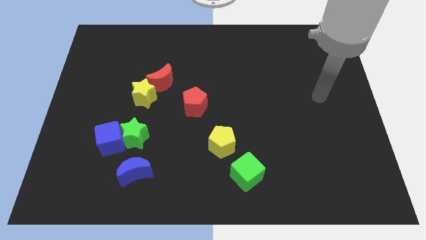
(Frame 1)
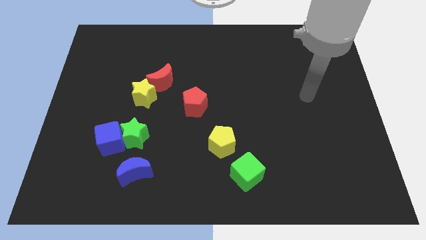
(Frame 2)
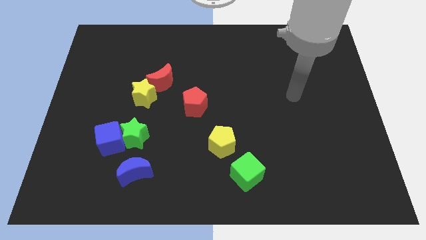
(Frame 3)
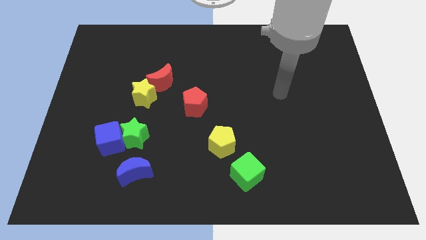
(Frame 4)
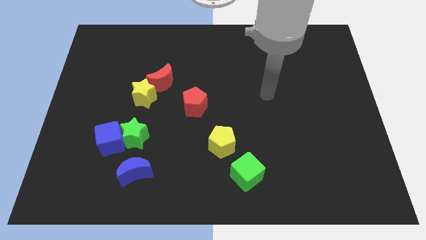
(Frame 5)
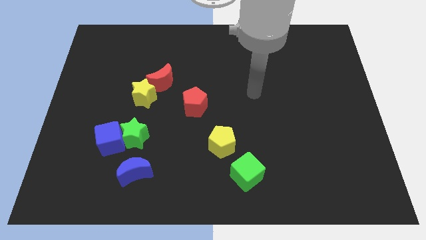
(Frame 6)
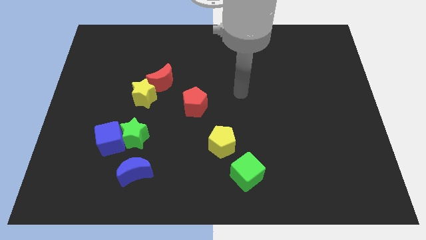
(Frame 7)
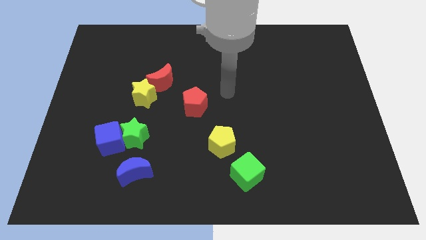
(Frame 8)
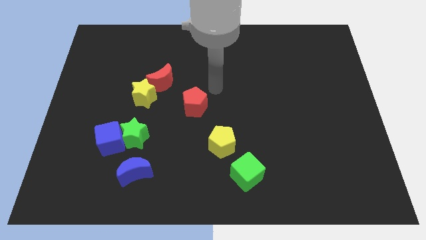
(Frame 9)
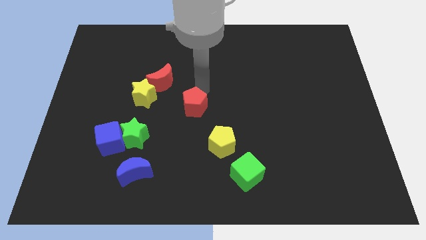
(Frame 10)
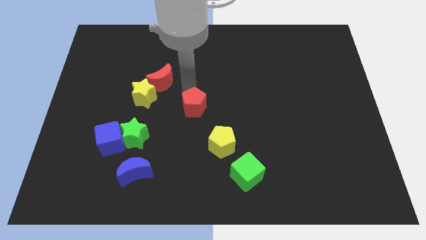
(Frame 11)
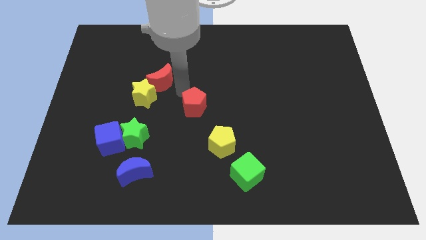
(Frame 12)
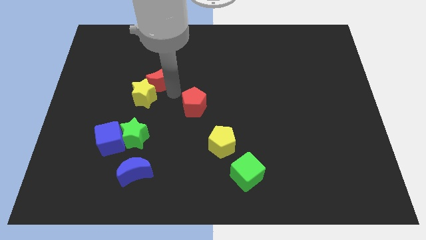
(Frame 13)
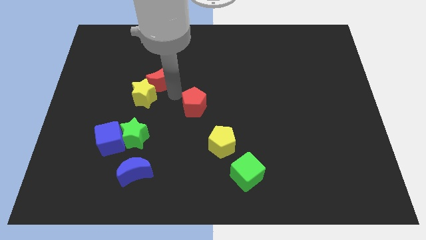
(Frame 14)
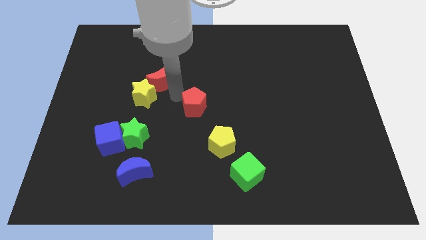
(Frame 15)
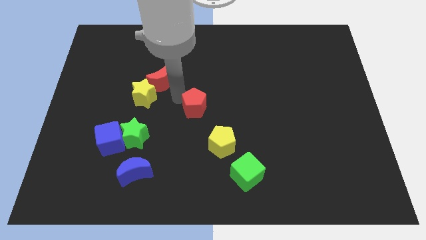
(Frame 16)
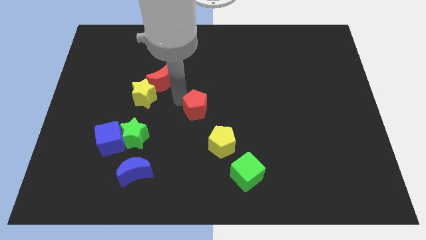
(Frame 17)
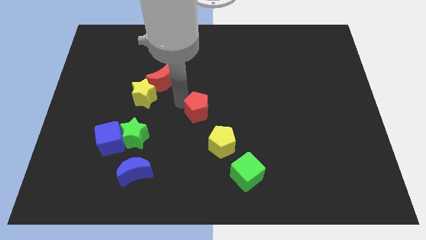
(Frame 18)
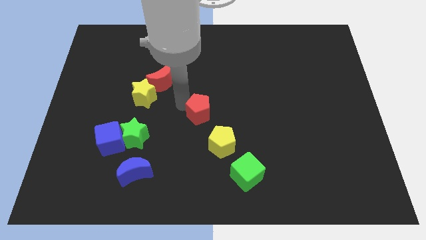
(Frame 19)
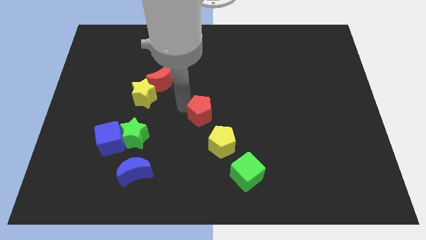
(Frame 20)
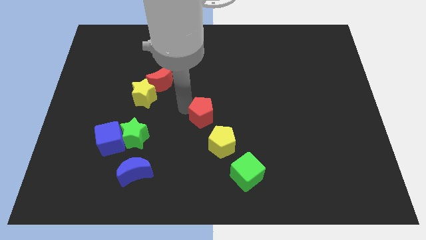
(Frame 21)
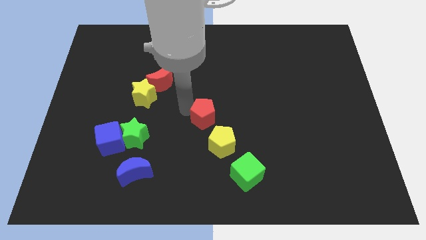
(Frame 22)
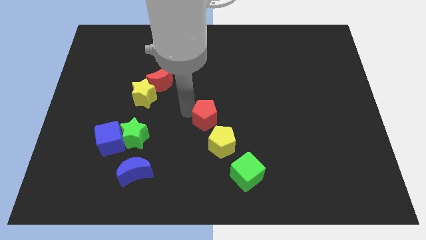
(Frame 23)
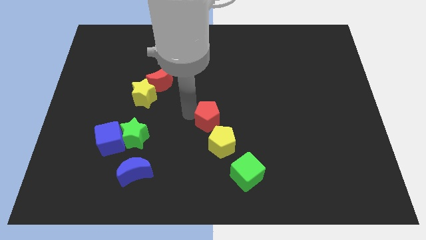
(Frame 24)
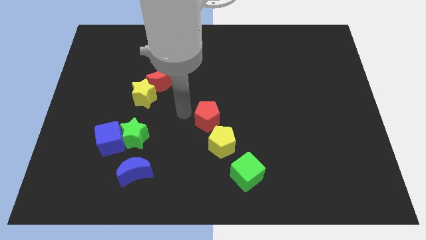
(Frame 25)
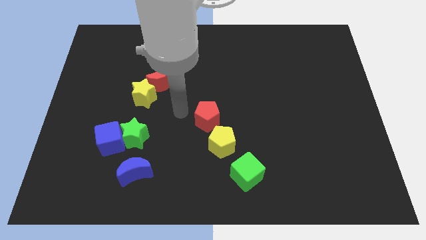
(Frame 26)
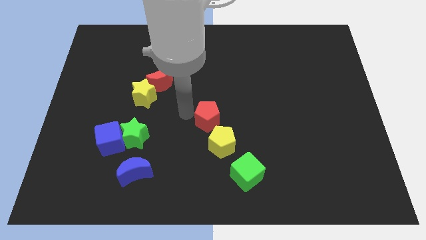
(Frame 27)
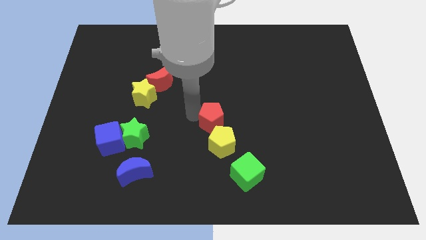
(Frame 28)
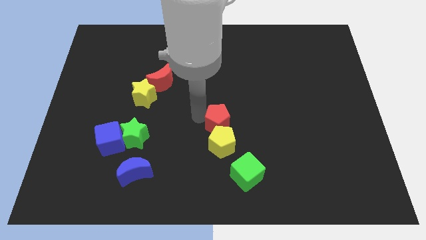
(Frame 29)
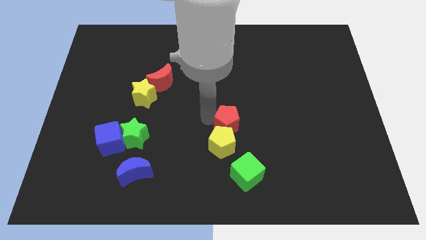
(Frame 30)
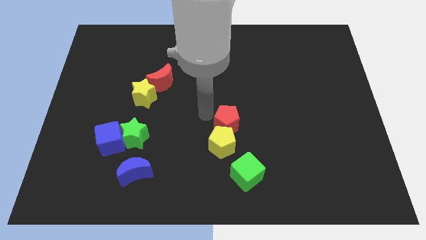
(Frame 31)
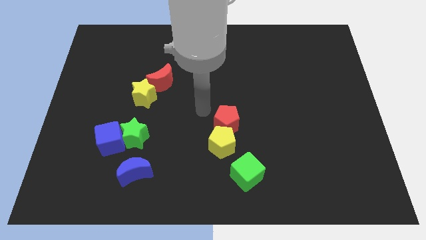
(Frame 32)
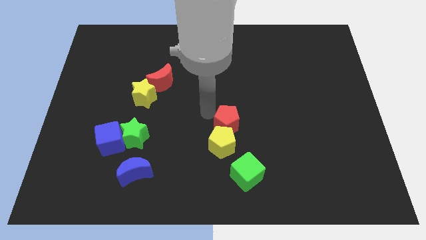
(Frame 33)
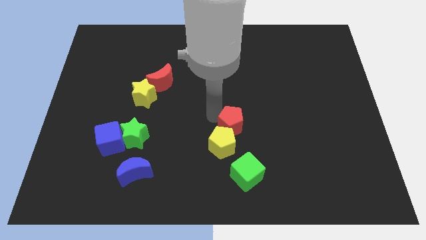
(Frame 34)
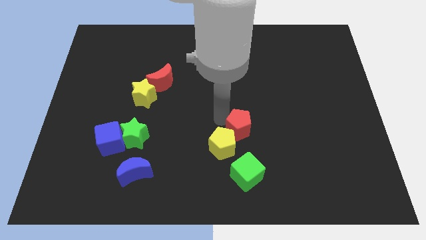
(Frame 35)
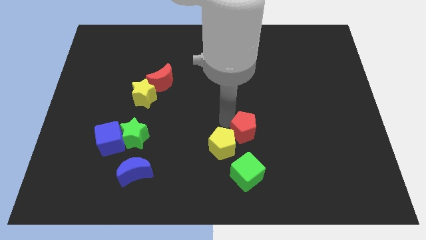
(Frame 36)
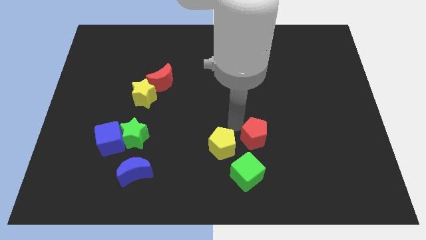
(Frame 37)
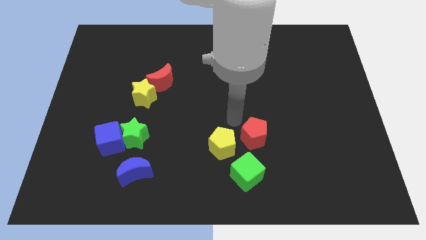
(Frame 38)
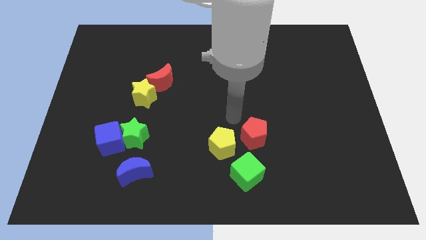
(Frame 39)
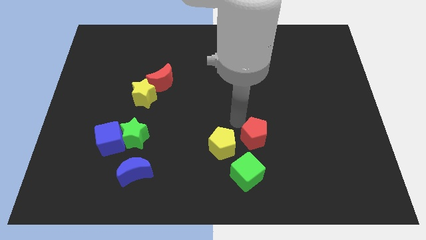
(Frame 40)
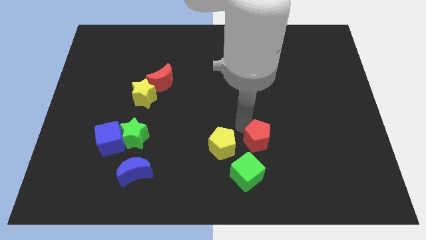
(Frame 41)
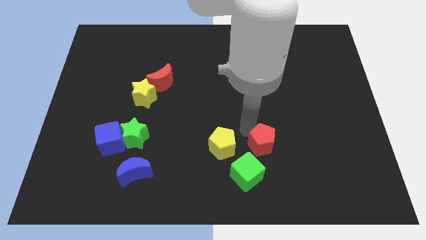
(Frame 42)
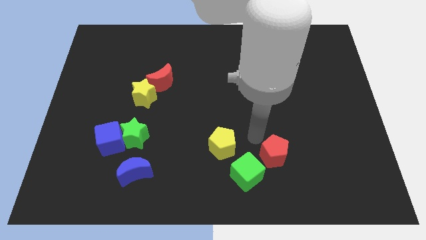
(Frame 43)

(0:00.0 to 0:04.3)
move the red pentagon to the right of the green cube

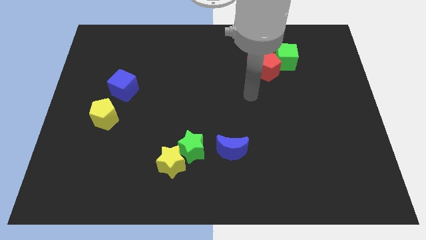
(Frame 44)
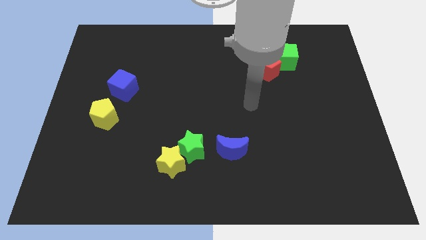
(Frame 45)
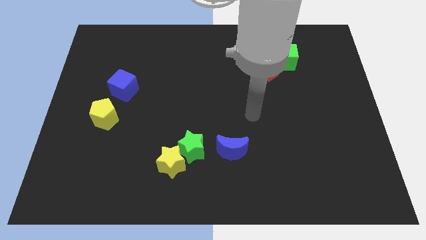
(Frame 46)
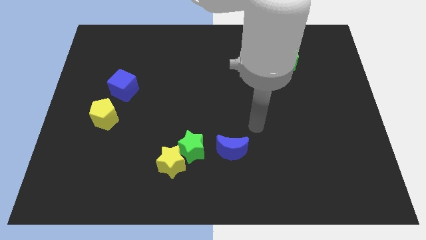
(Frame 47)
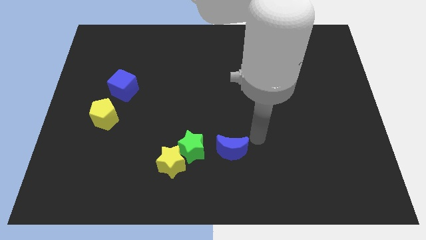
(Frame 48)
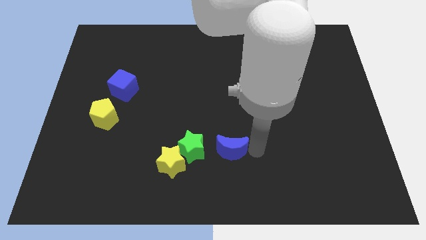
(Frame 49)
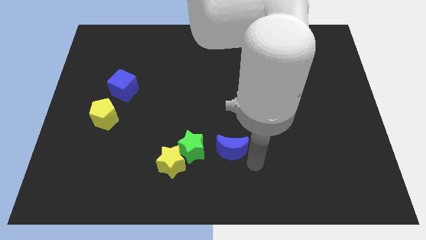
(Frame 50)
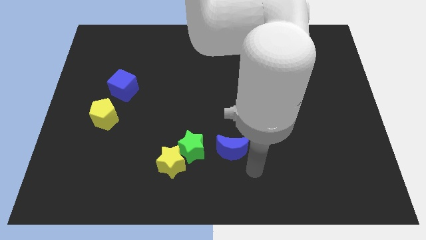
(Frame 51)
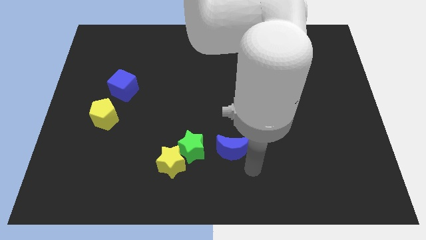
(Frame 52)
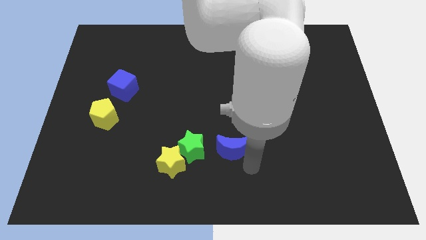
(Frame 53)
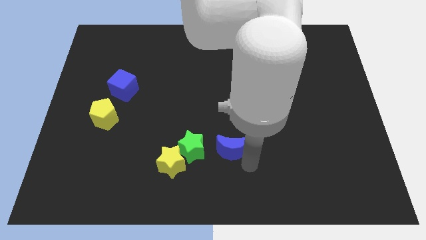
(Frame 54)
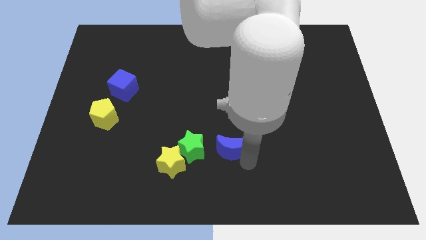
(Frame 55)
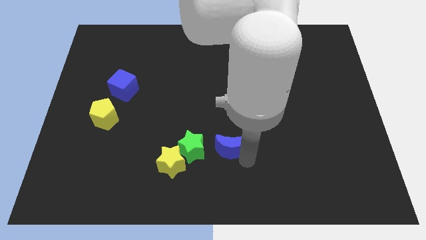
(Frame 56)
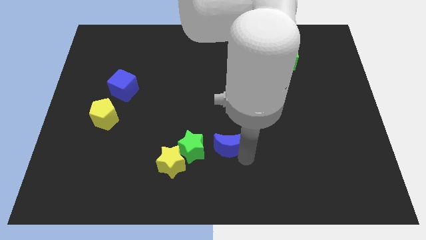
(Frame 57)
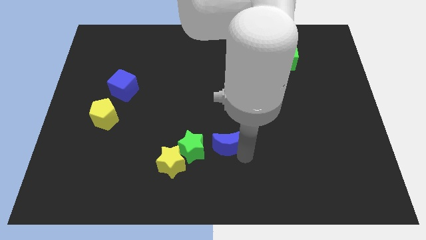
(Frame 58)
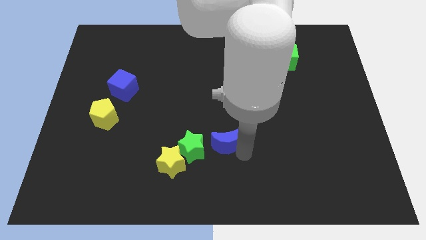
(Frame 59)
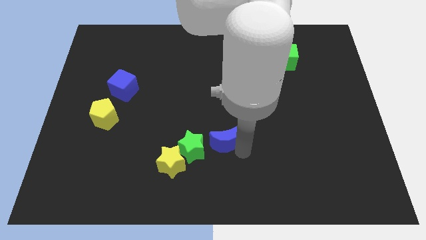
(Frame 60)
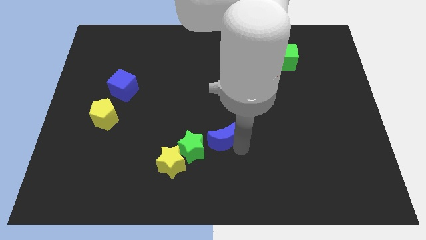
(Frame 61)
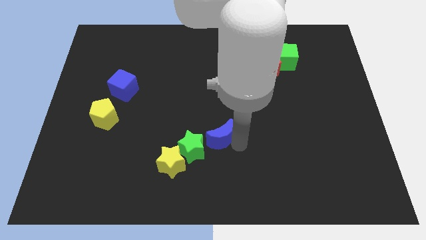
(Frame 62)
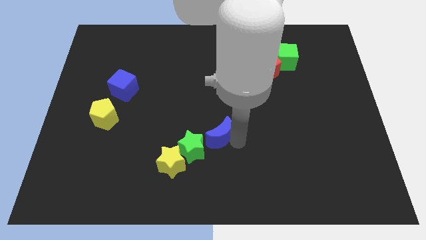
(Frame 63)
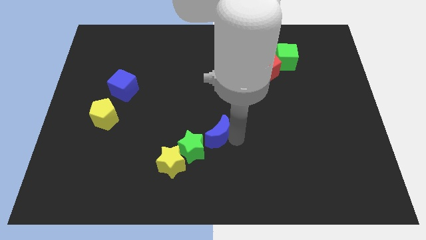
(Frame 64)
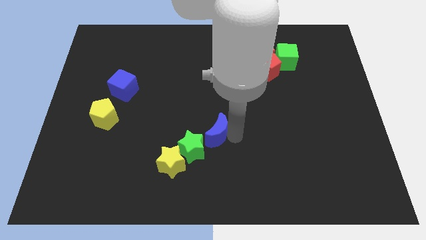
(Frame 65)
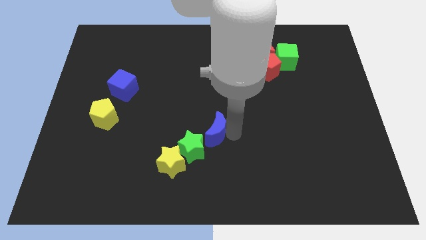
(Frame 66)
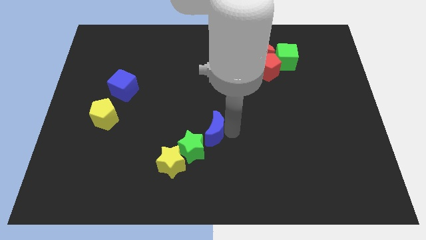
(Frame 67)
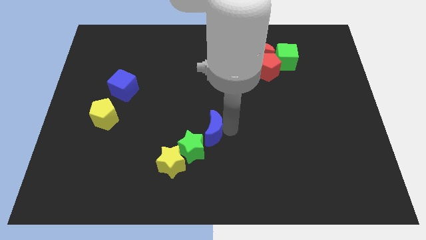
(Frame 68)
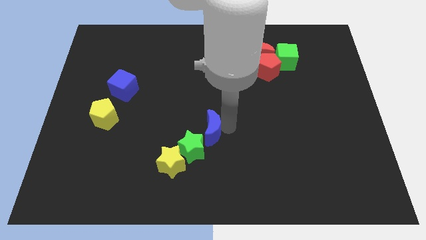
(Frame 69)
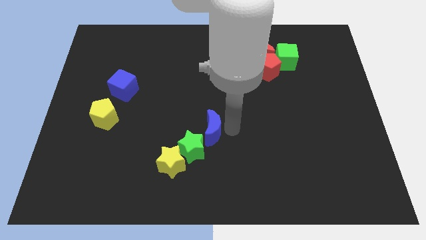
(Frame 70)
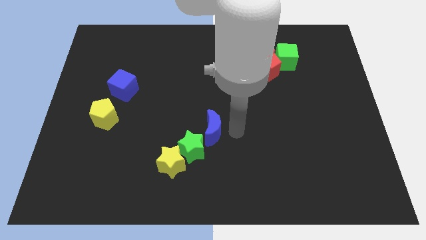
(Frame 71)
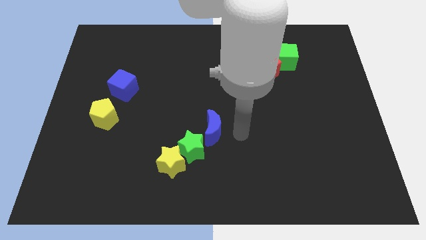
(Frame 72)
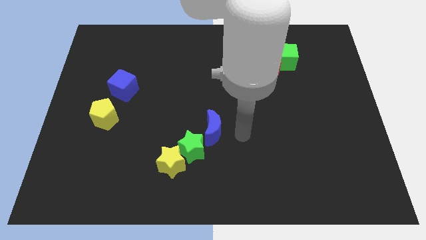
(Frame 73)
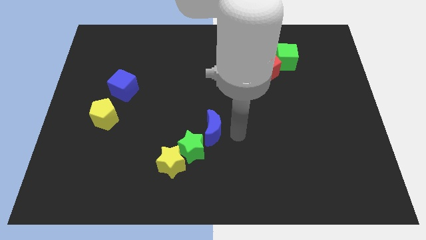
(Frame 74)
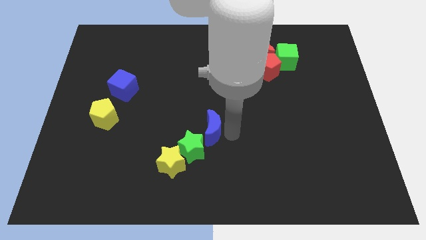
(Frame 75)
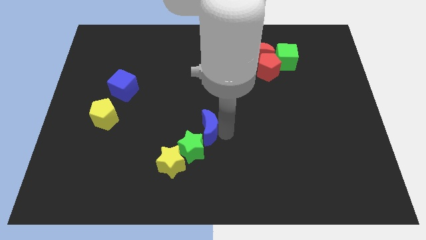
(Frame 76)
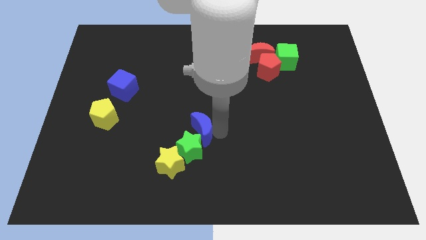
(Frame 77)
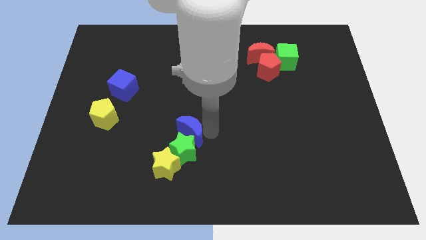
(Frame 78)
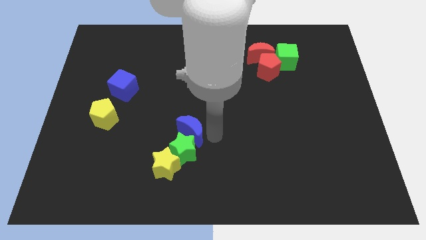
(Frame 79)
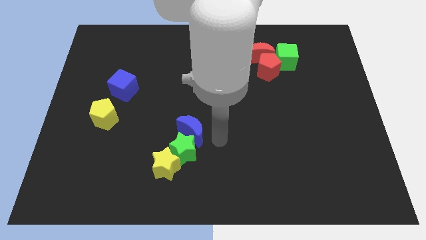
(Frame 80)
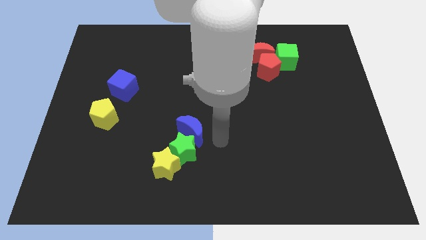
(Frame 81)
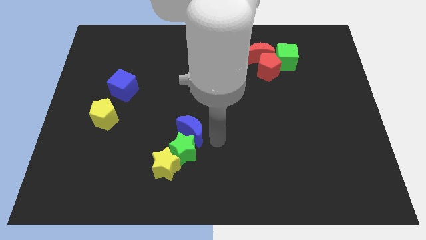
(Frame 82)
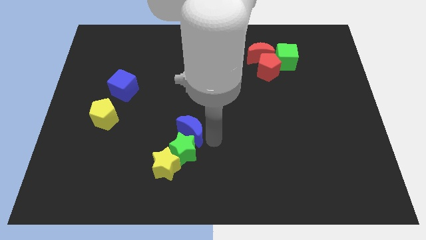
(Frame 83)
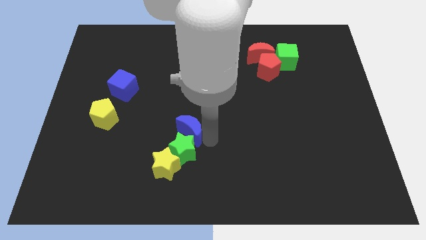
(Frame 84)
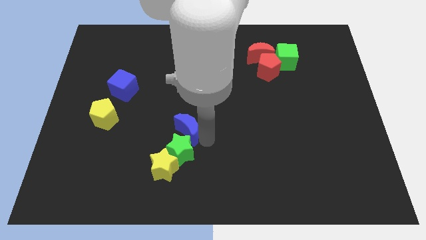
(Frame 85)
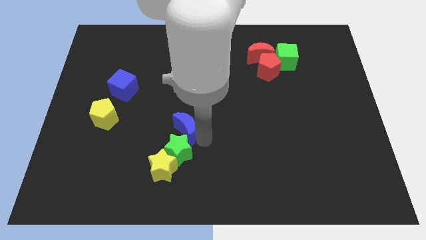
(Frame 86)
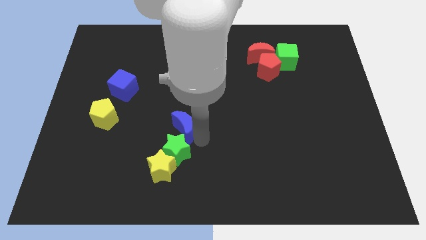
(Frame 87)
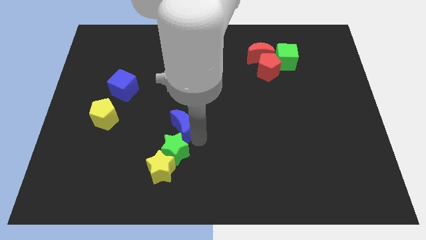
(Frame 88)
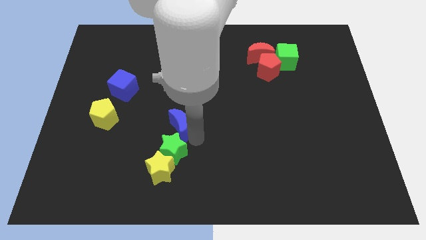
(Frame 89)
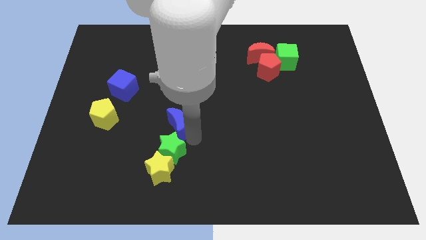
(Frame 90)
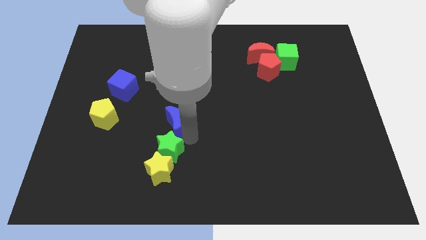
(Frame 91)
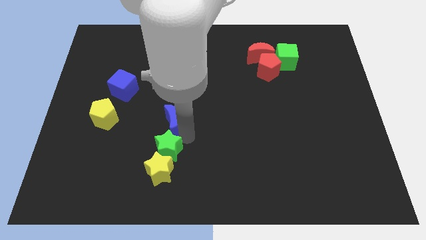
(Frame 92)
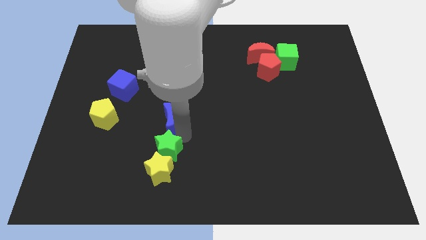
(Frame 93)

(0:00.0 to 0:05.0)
move the blue moon right of the yellow pentagon
